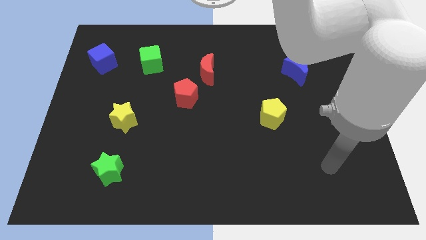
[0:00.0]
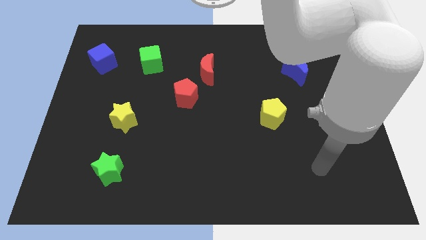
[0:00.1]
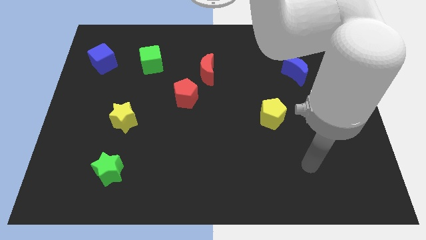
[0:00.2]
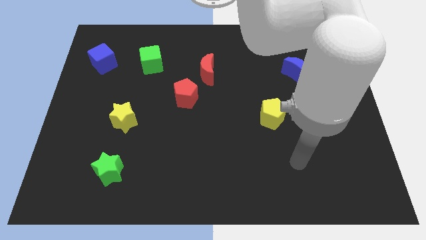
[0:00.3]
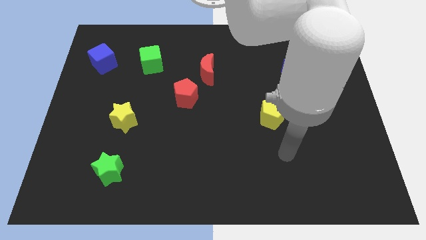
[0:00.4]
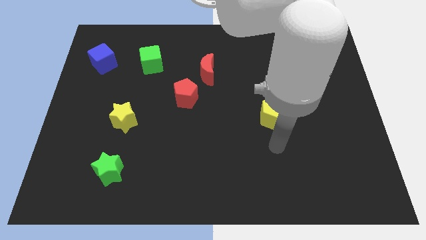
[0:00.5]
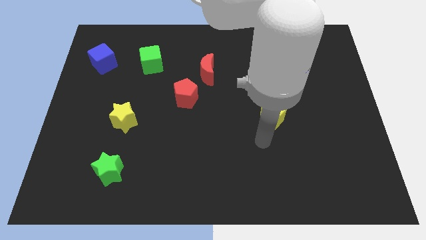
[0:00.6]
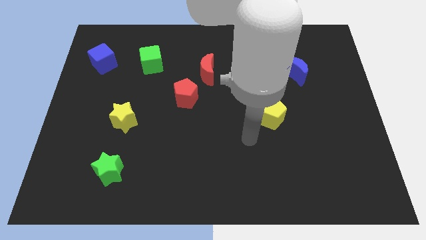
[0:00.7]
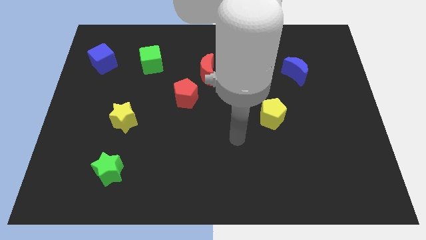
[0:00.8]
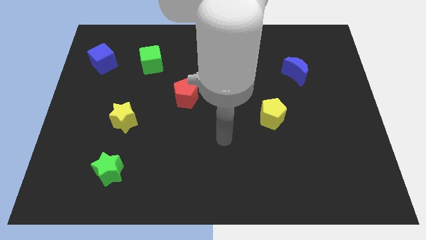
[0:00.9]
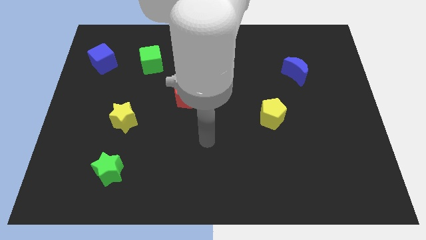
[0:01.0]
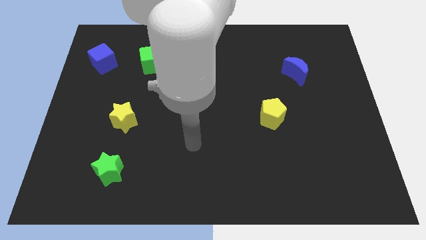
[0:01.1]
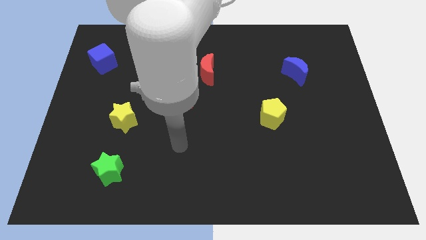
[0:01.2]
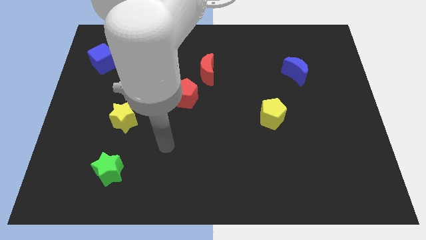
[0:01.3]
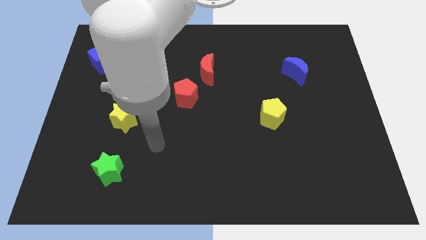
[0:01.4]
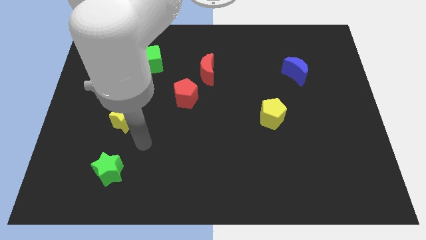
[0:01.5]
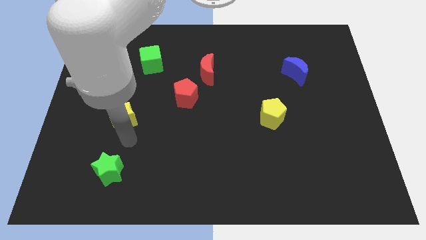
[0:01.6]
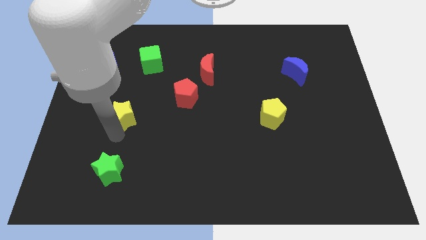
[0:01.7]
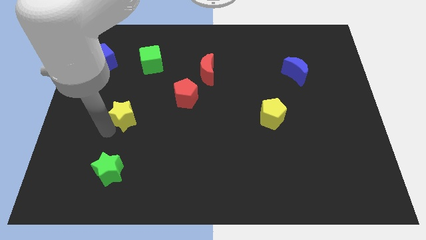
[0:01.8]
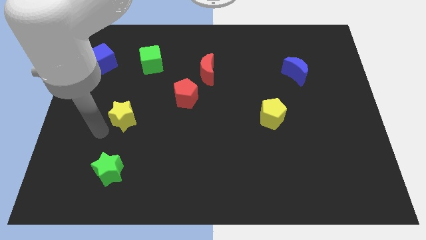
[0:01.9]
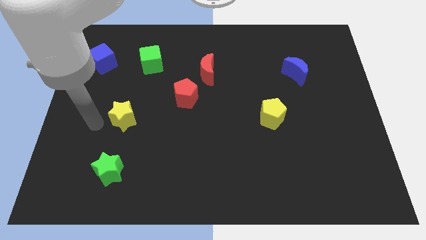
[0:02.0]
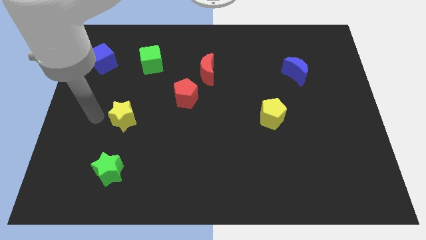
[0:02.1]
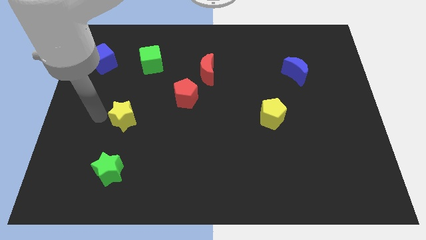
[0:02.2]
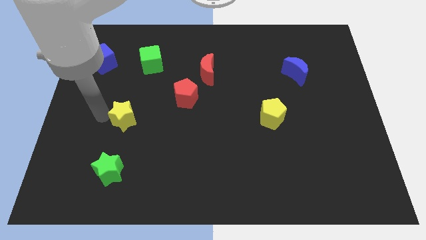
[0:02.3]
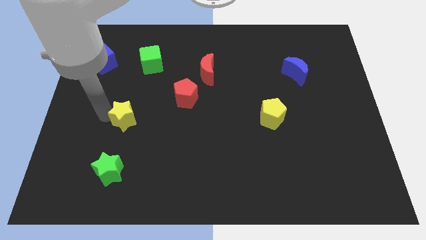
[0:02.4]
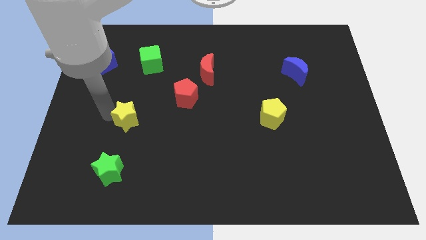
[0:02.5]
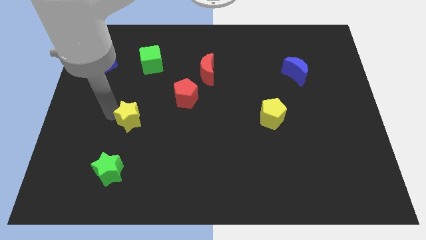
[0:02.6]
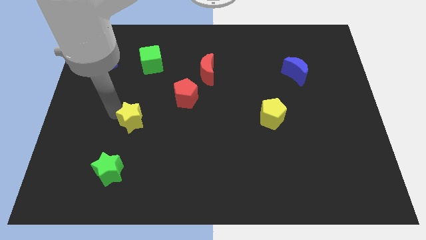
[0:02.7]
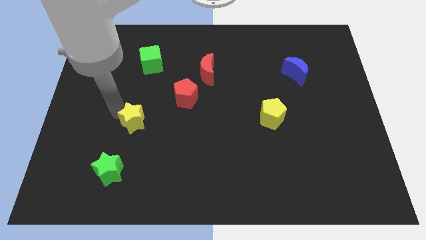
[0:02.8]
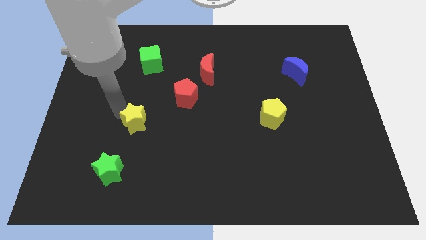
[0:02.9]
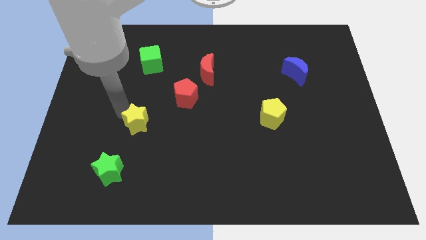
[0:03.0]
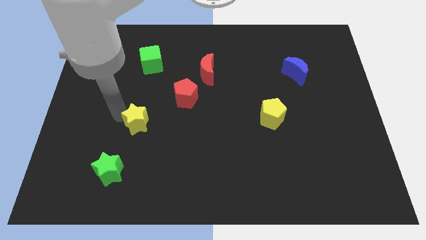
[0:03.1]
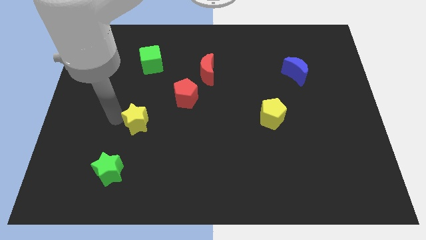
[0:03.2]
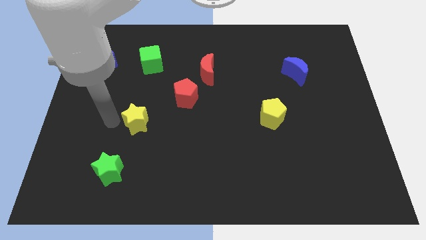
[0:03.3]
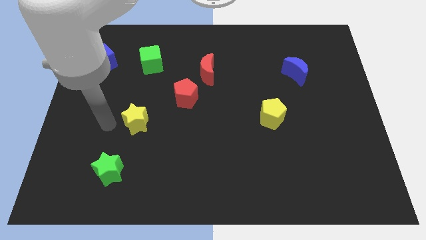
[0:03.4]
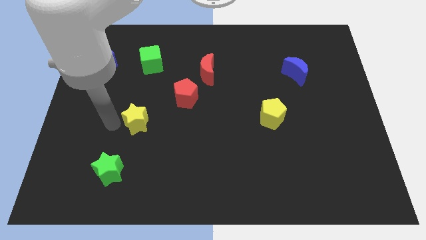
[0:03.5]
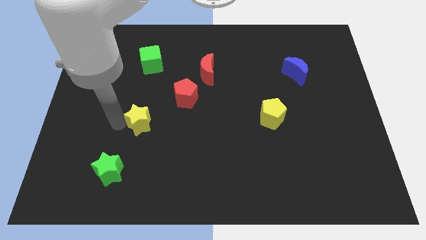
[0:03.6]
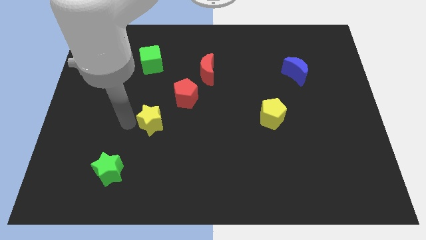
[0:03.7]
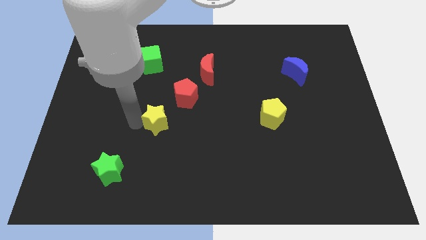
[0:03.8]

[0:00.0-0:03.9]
push the yellow star right a little bit

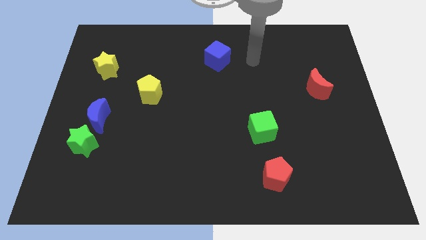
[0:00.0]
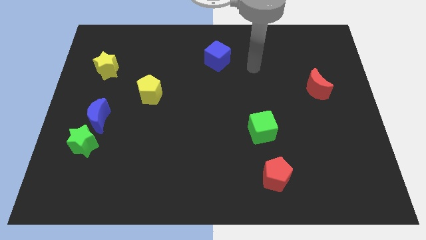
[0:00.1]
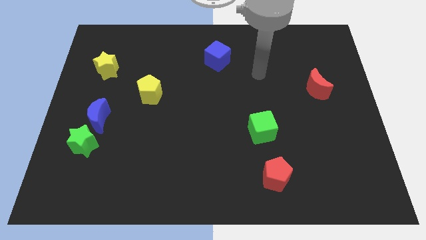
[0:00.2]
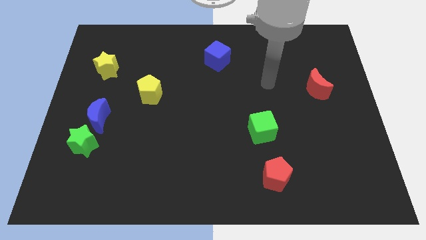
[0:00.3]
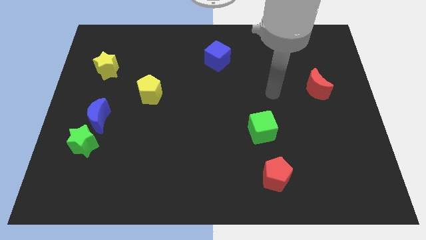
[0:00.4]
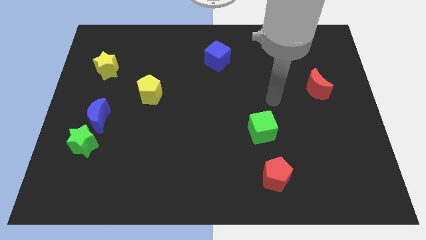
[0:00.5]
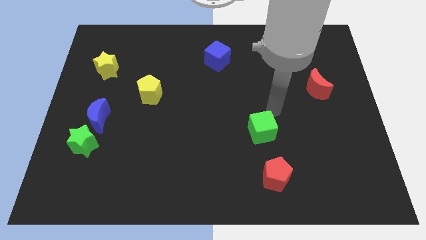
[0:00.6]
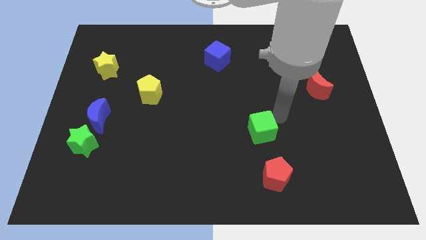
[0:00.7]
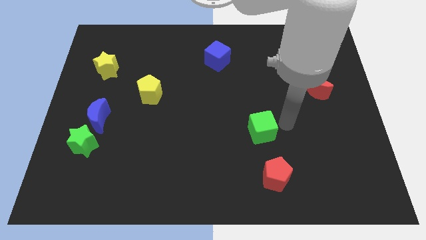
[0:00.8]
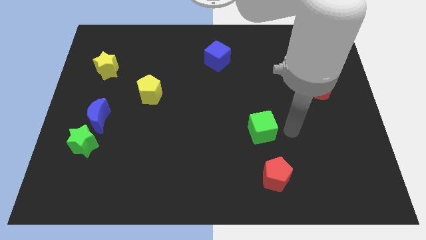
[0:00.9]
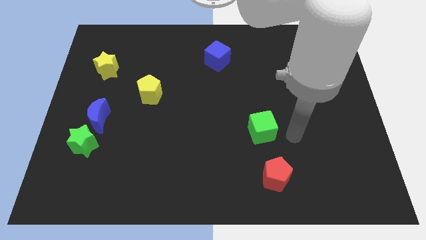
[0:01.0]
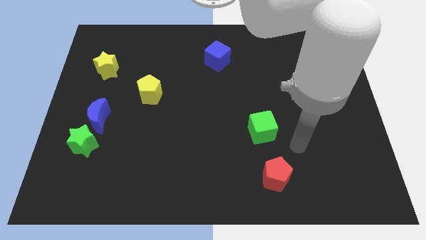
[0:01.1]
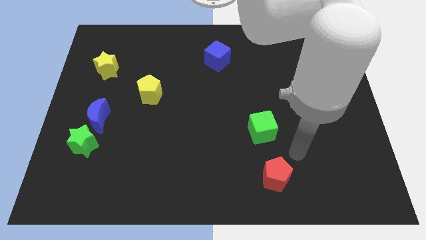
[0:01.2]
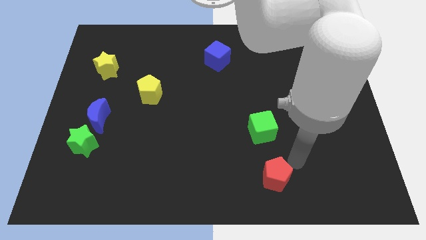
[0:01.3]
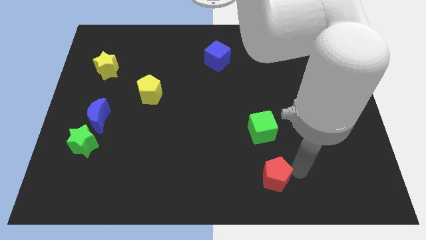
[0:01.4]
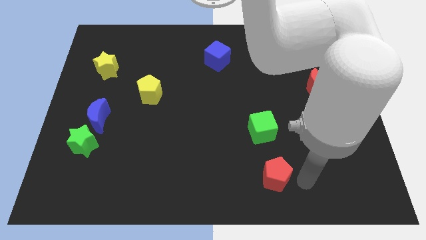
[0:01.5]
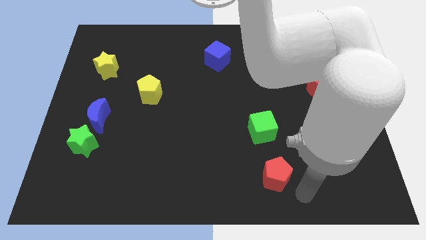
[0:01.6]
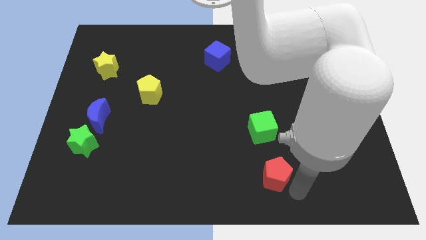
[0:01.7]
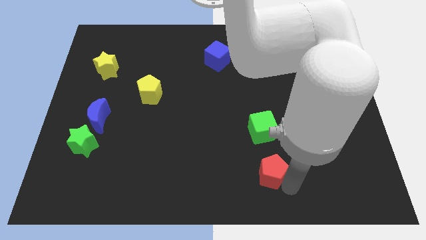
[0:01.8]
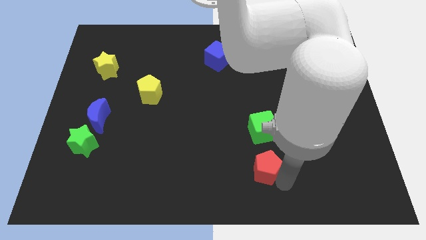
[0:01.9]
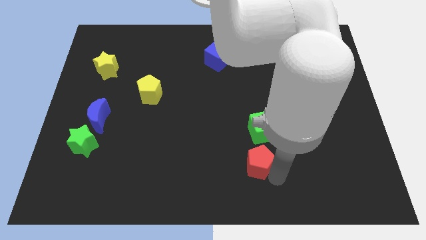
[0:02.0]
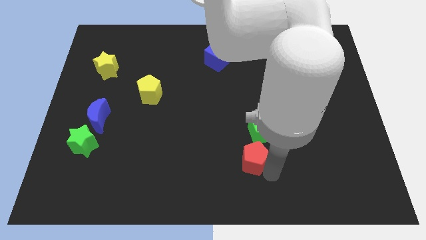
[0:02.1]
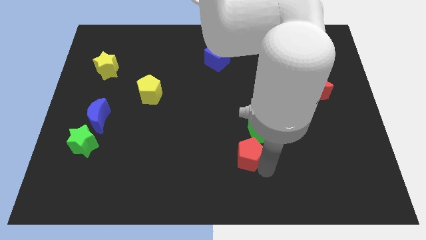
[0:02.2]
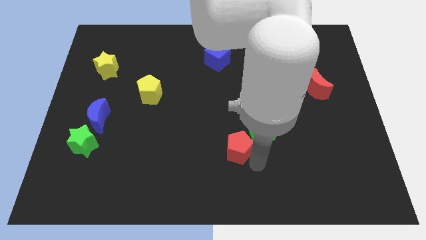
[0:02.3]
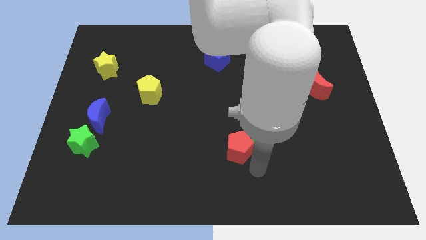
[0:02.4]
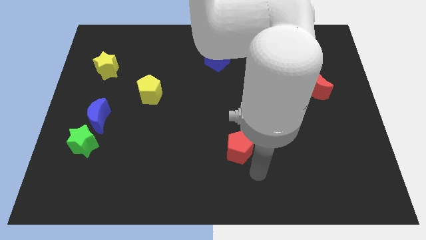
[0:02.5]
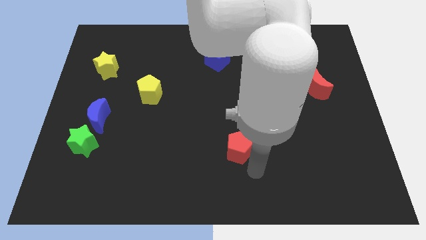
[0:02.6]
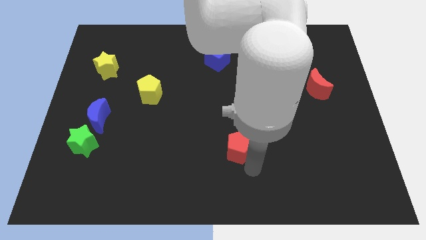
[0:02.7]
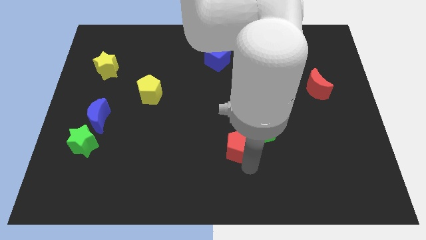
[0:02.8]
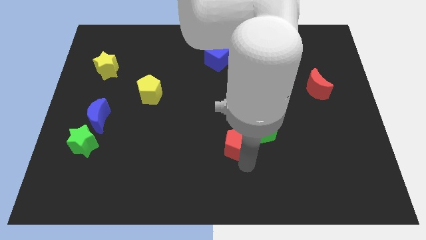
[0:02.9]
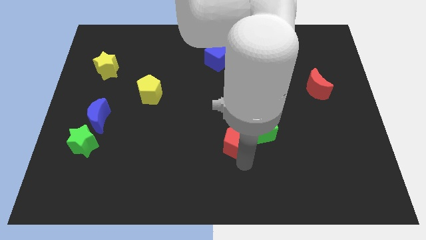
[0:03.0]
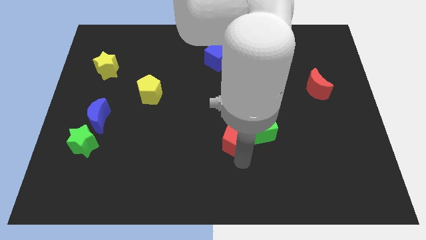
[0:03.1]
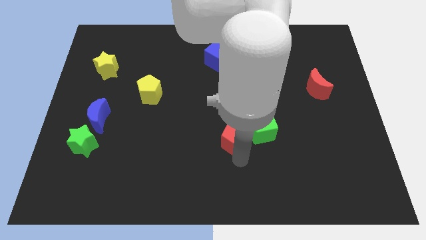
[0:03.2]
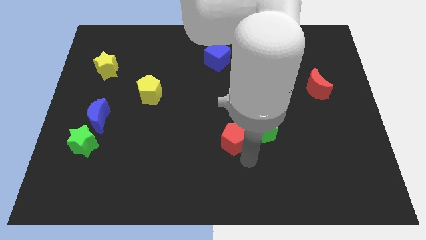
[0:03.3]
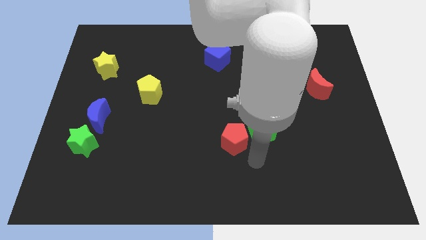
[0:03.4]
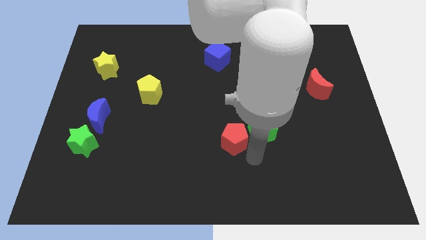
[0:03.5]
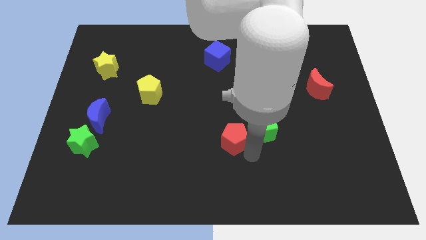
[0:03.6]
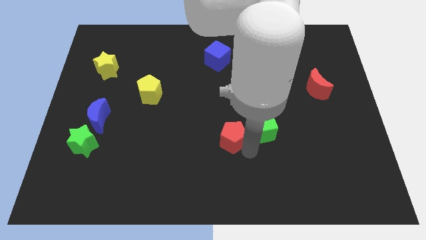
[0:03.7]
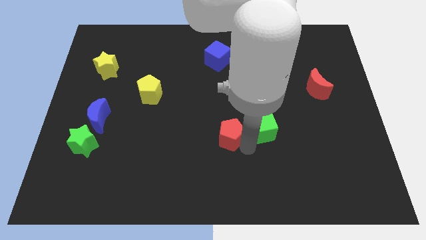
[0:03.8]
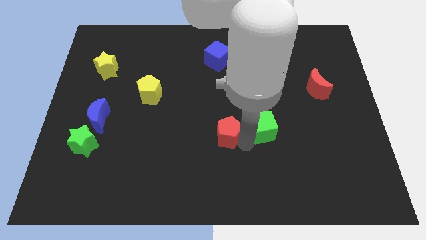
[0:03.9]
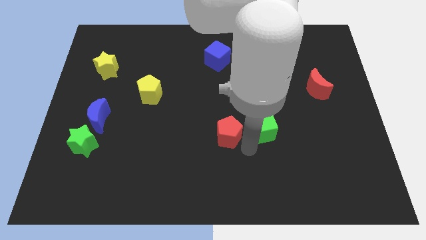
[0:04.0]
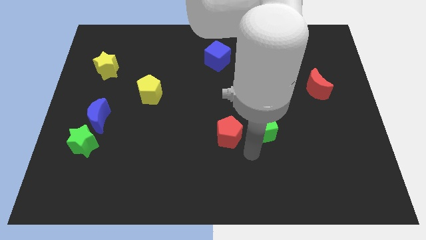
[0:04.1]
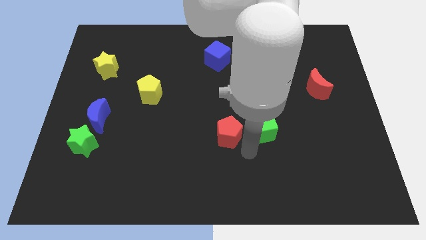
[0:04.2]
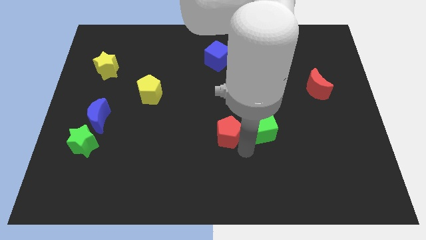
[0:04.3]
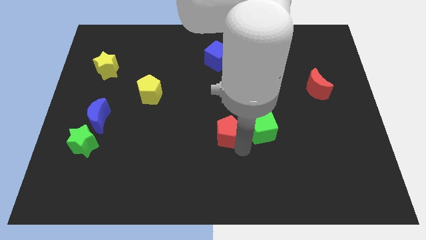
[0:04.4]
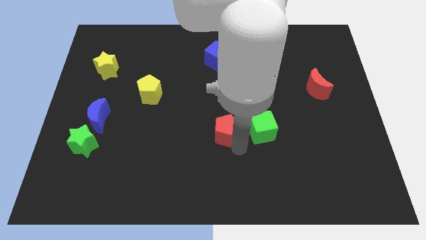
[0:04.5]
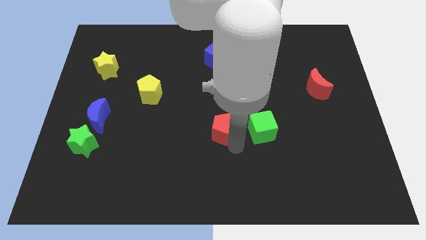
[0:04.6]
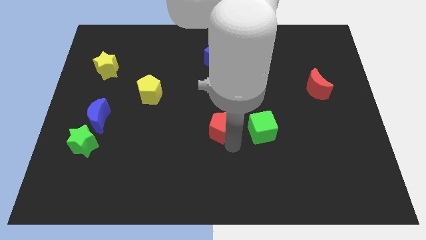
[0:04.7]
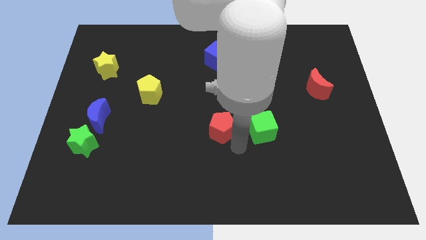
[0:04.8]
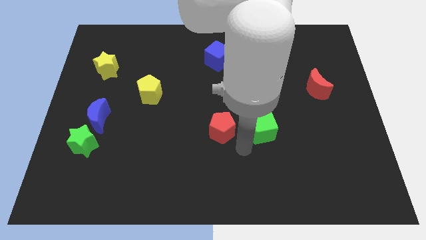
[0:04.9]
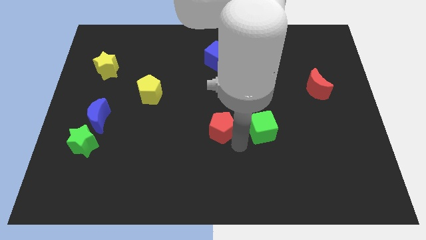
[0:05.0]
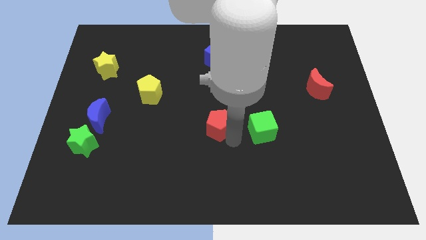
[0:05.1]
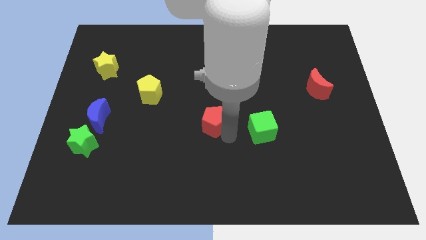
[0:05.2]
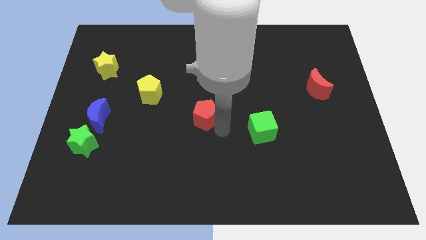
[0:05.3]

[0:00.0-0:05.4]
move the red pentagon upwards and then left
